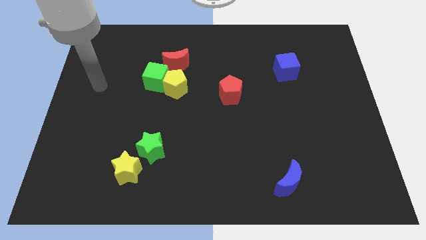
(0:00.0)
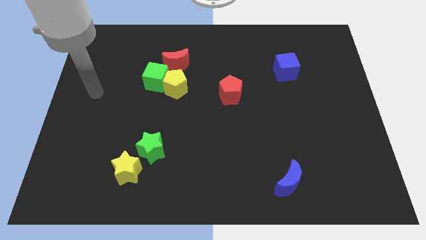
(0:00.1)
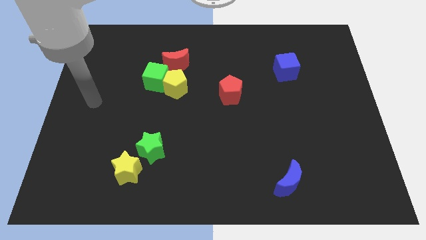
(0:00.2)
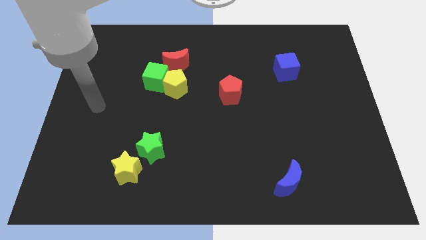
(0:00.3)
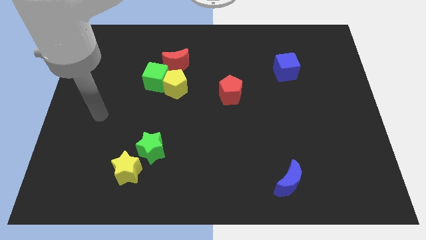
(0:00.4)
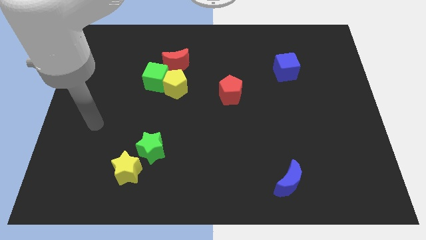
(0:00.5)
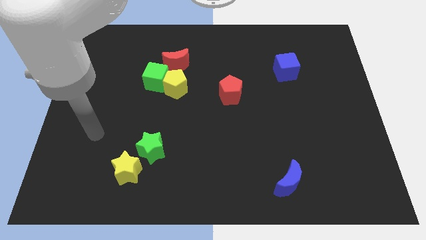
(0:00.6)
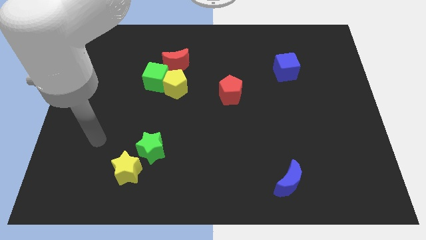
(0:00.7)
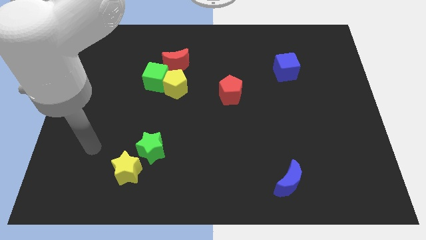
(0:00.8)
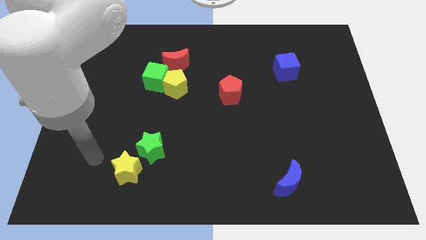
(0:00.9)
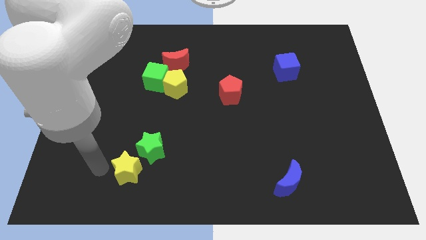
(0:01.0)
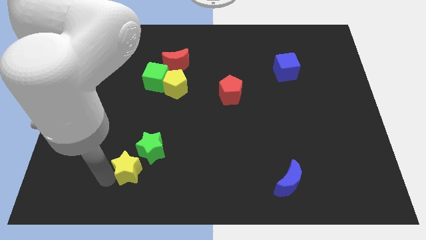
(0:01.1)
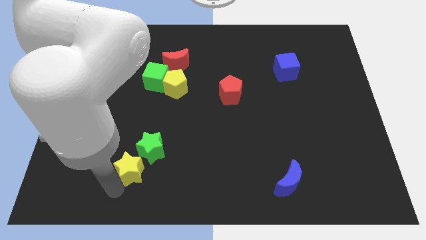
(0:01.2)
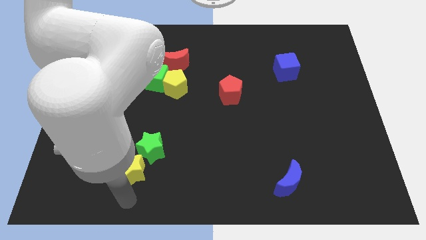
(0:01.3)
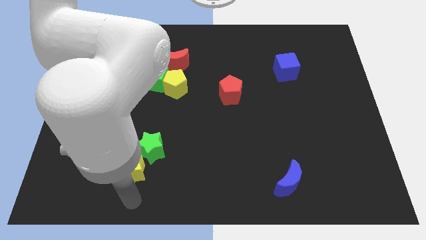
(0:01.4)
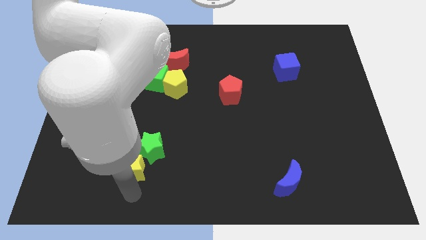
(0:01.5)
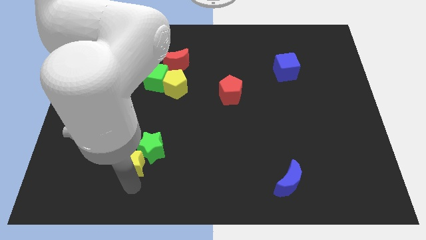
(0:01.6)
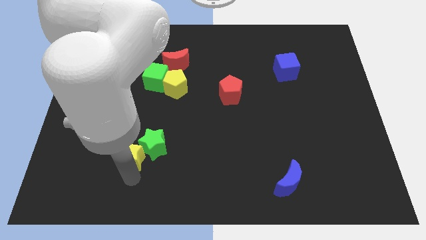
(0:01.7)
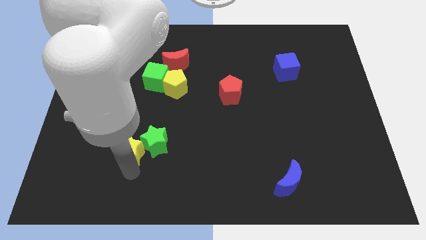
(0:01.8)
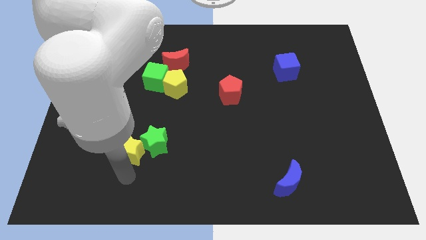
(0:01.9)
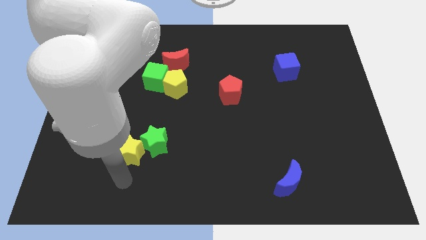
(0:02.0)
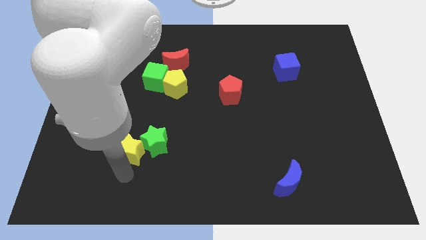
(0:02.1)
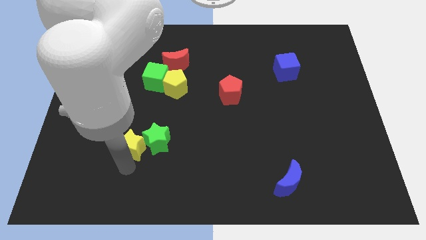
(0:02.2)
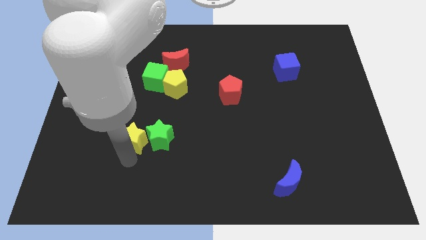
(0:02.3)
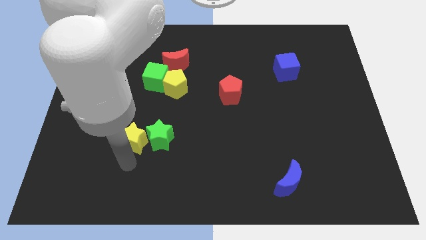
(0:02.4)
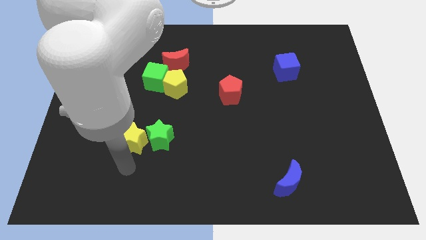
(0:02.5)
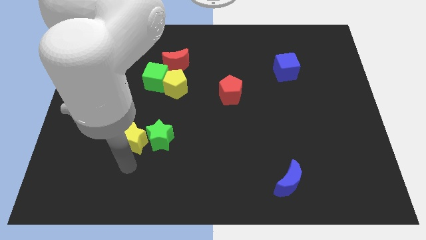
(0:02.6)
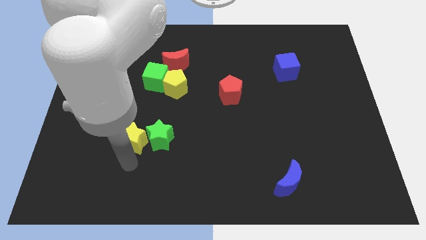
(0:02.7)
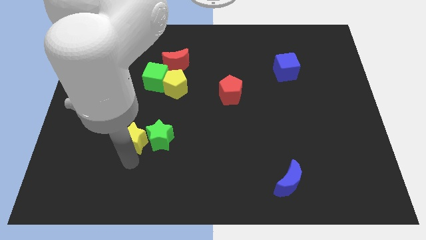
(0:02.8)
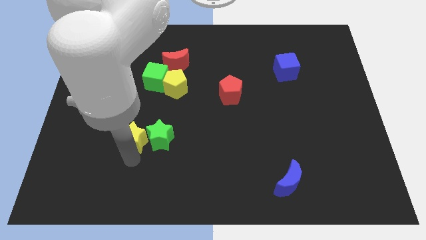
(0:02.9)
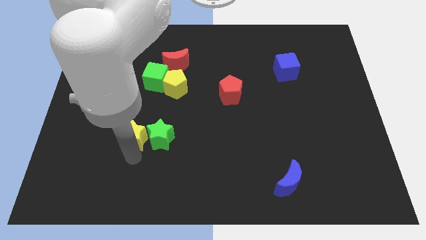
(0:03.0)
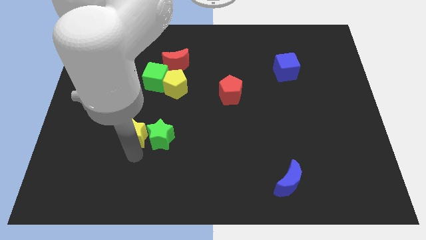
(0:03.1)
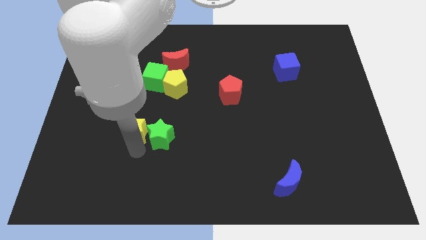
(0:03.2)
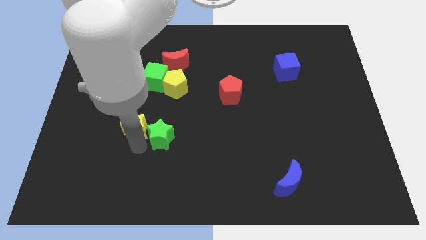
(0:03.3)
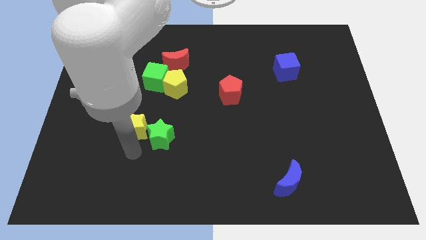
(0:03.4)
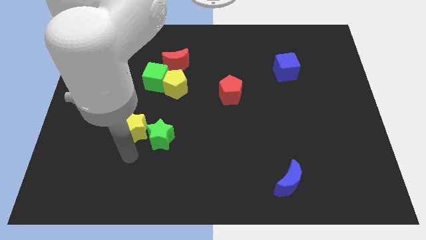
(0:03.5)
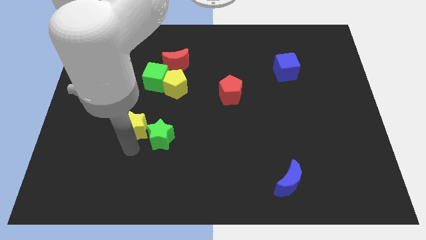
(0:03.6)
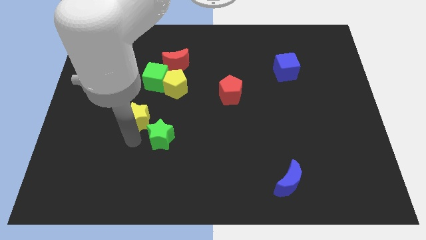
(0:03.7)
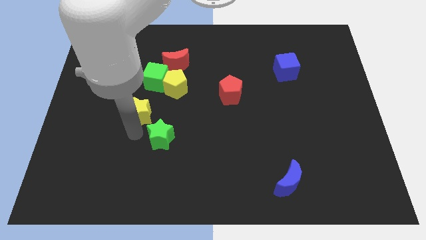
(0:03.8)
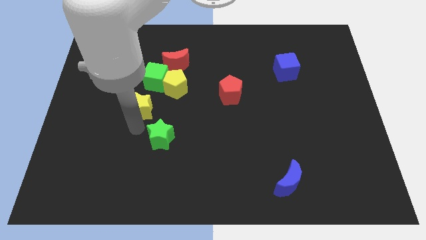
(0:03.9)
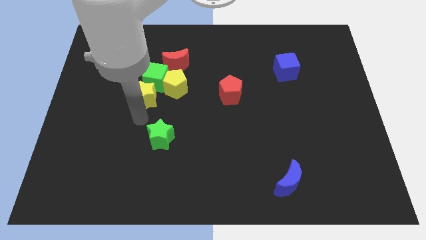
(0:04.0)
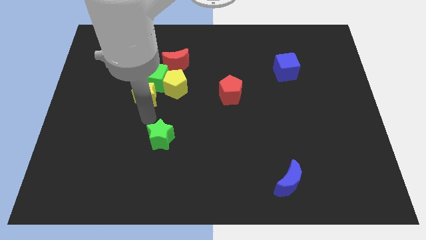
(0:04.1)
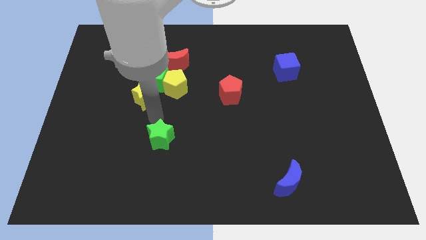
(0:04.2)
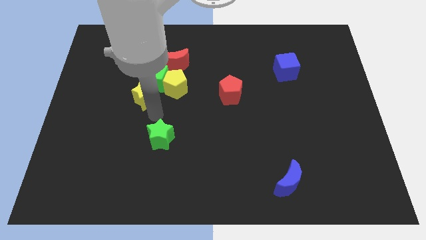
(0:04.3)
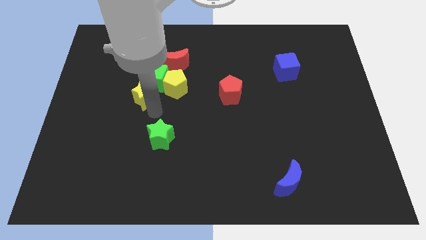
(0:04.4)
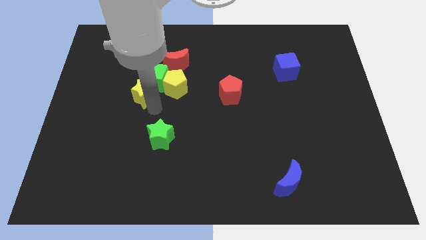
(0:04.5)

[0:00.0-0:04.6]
slide the yellow star upwards

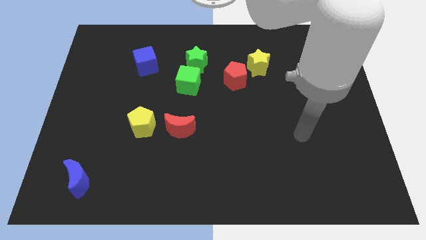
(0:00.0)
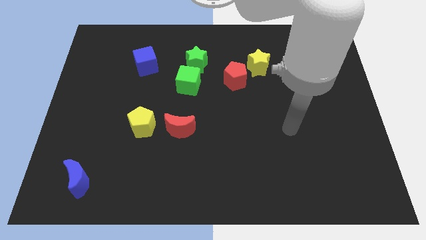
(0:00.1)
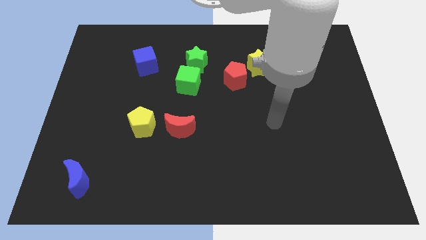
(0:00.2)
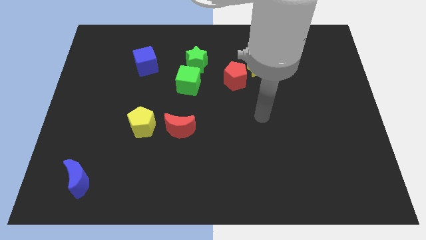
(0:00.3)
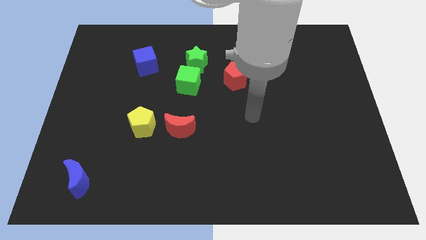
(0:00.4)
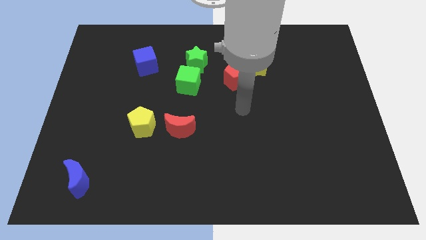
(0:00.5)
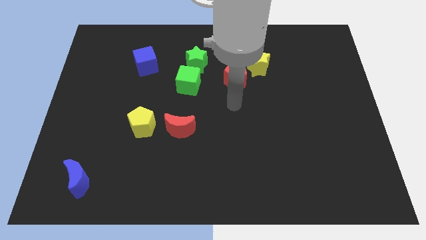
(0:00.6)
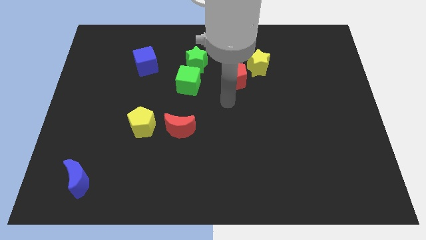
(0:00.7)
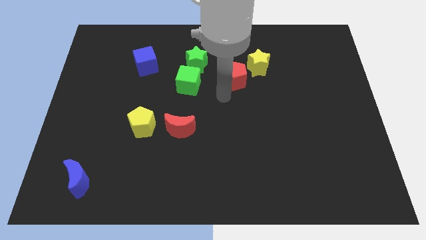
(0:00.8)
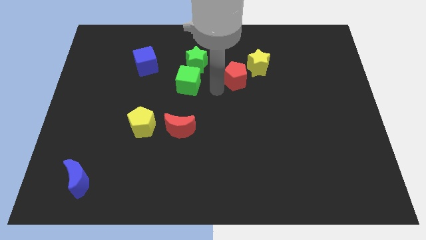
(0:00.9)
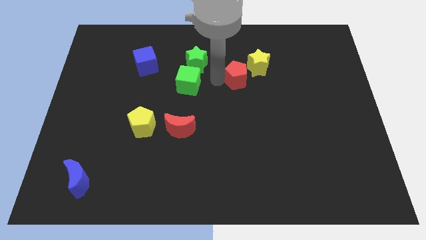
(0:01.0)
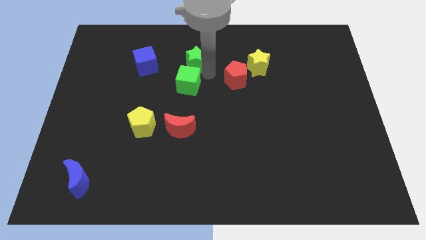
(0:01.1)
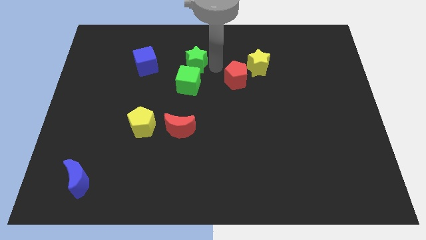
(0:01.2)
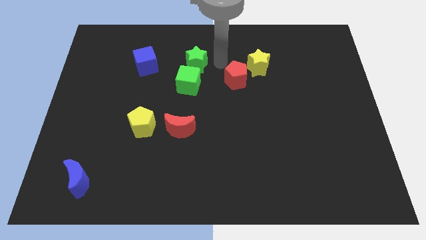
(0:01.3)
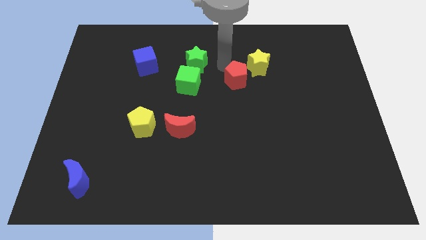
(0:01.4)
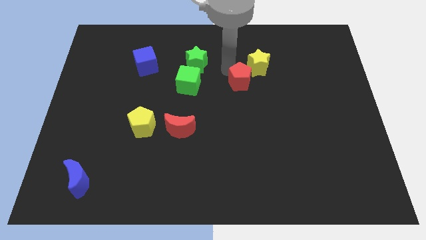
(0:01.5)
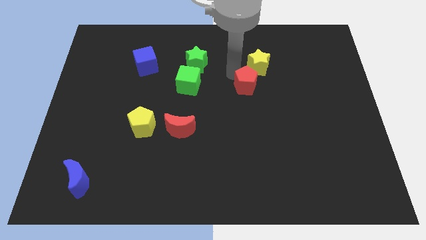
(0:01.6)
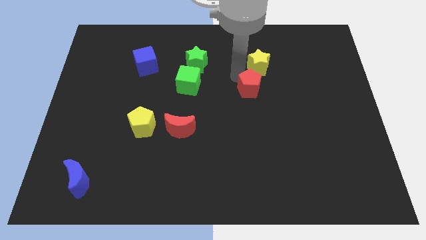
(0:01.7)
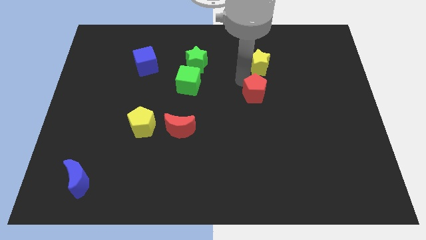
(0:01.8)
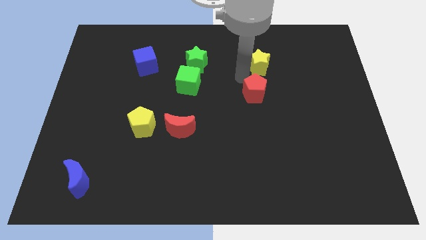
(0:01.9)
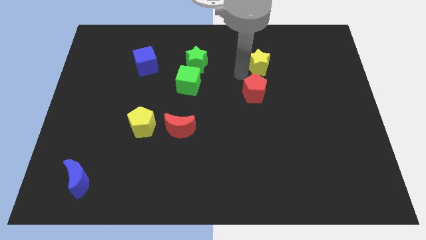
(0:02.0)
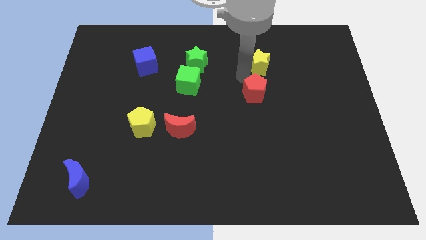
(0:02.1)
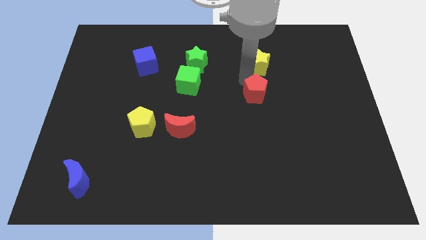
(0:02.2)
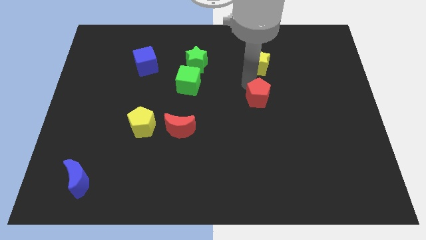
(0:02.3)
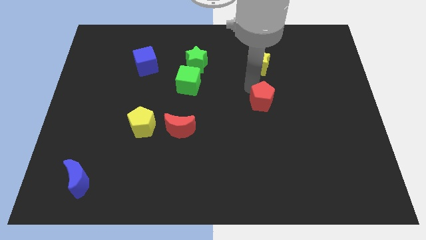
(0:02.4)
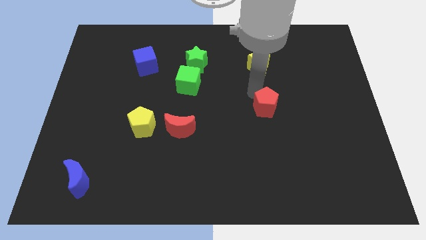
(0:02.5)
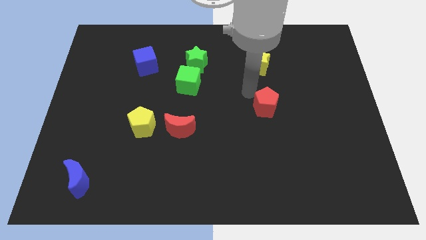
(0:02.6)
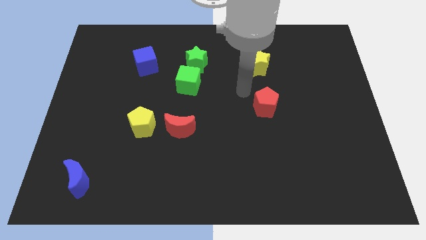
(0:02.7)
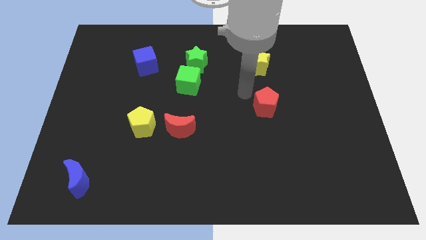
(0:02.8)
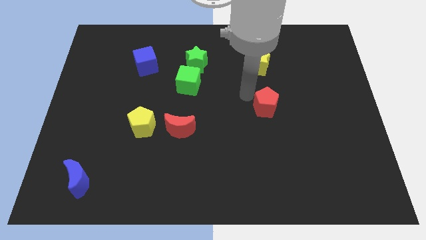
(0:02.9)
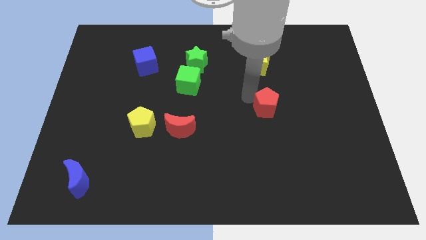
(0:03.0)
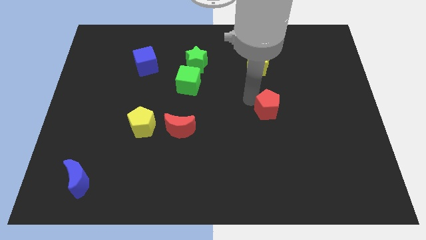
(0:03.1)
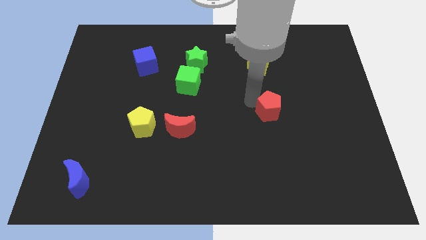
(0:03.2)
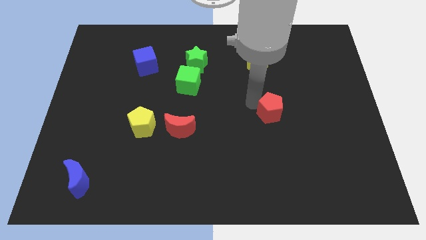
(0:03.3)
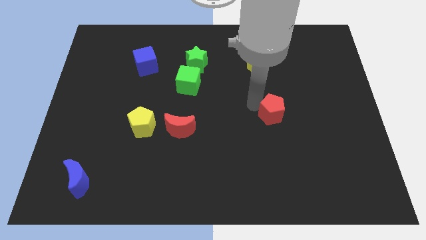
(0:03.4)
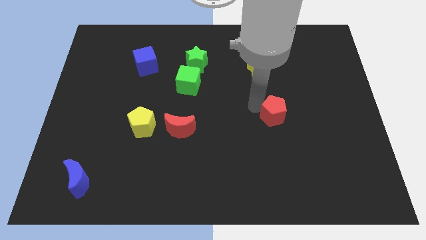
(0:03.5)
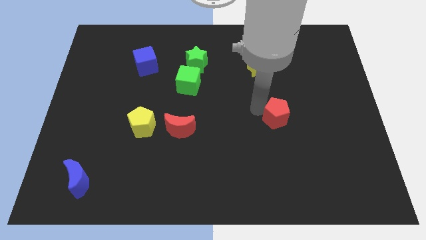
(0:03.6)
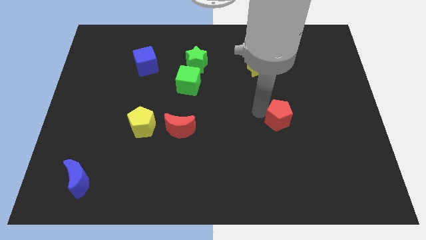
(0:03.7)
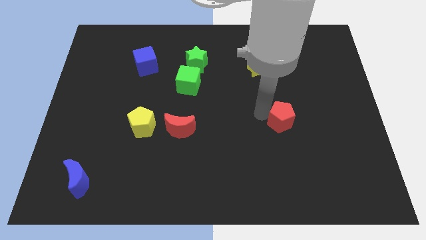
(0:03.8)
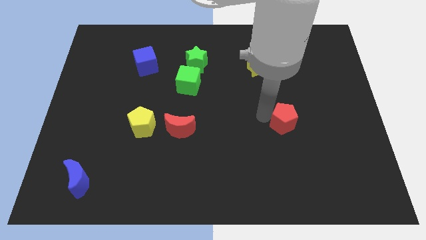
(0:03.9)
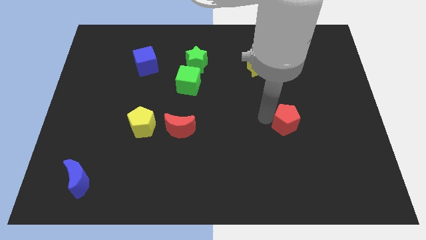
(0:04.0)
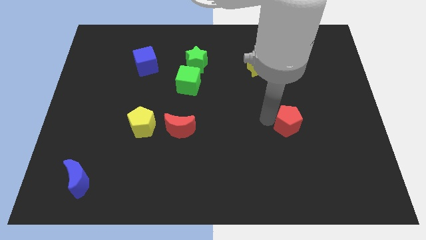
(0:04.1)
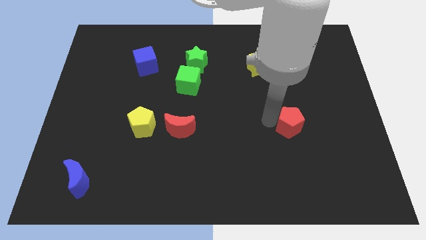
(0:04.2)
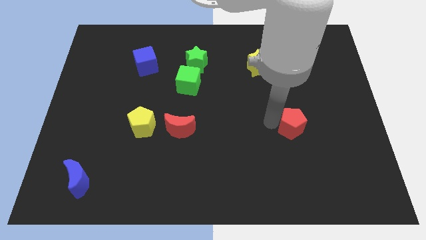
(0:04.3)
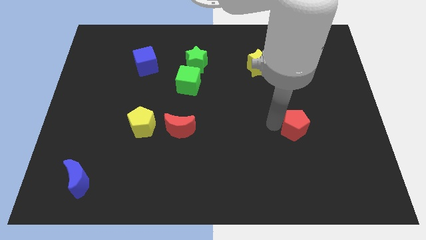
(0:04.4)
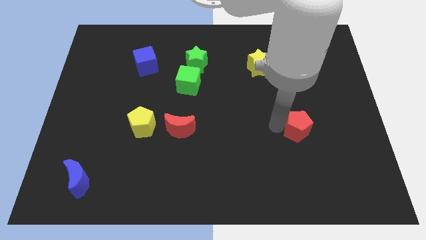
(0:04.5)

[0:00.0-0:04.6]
slide the red pentagon downwards and to the right
